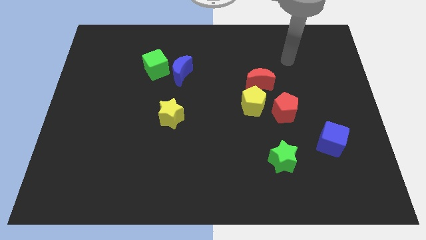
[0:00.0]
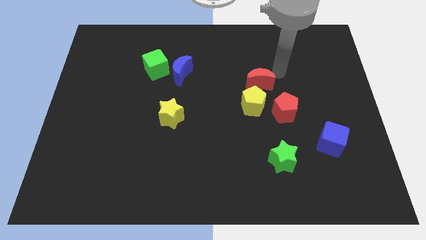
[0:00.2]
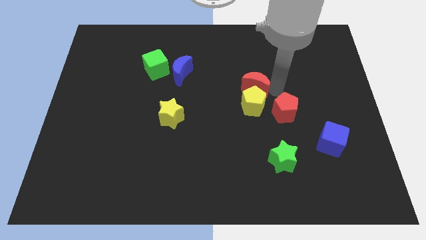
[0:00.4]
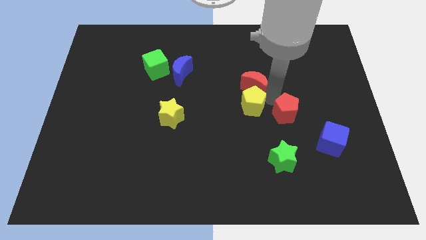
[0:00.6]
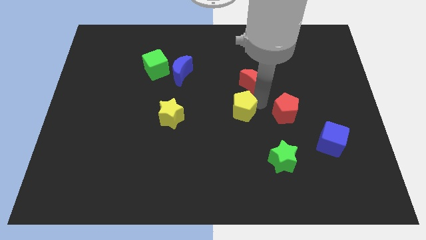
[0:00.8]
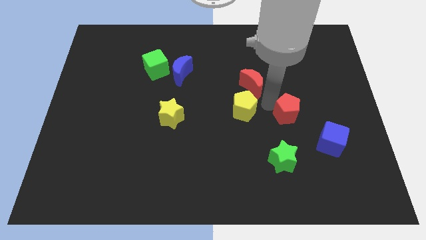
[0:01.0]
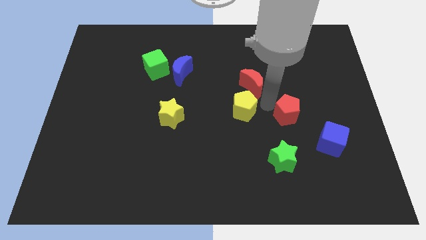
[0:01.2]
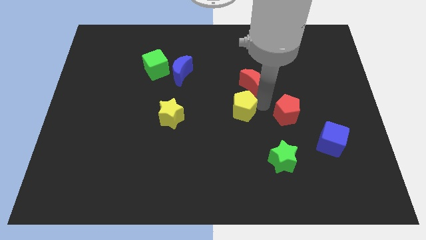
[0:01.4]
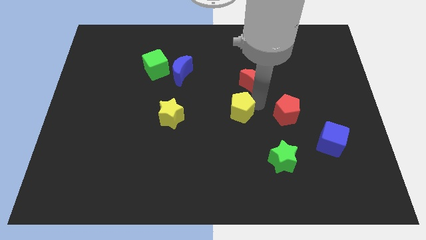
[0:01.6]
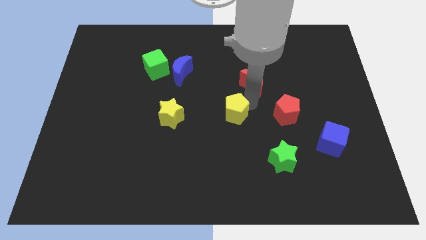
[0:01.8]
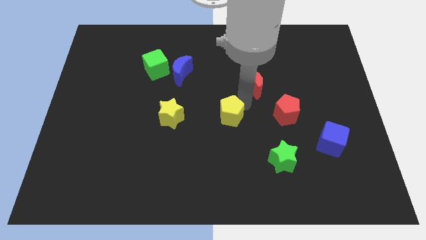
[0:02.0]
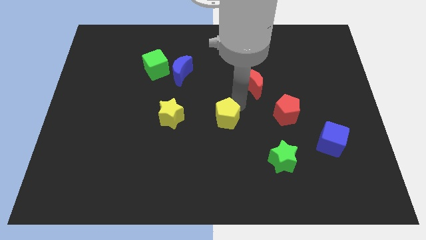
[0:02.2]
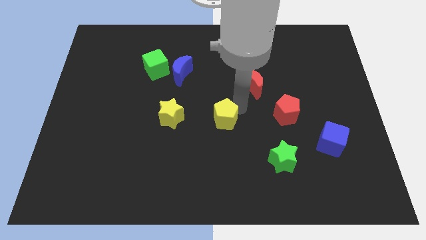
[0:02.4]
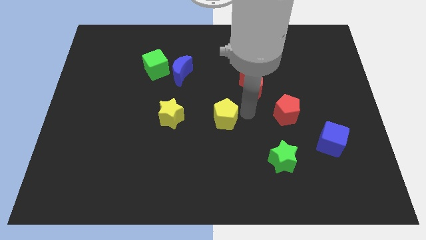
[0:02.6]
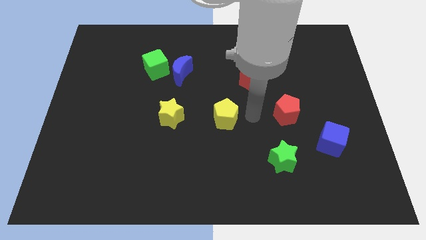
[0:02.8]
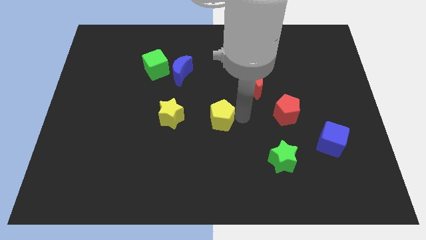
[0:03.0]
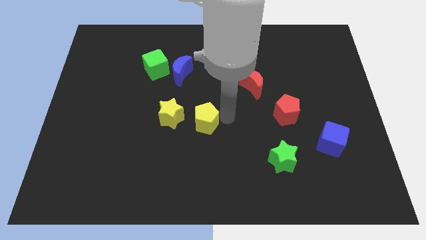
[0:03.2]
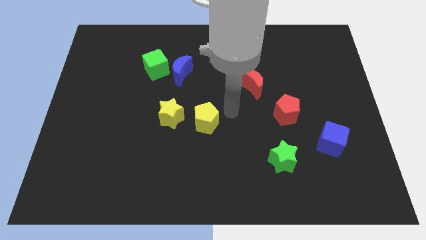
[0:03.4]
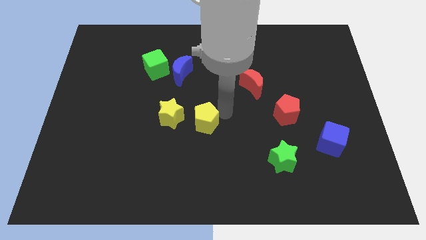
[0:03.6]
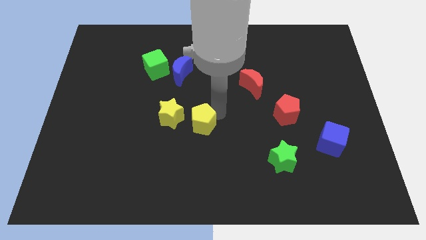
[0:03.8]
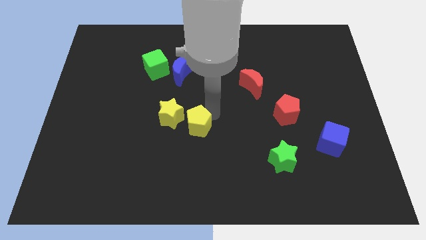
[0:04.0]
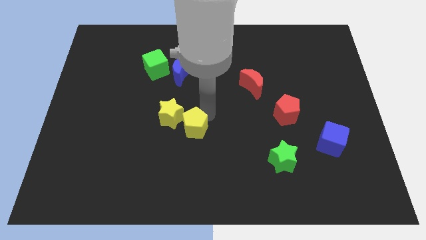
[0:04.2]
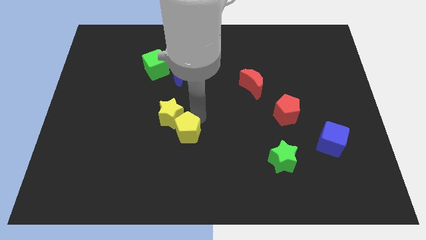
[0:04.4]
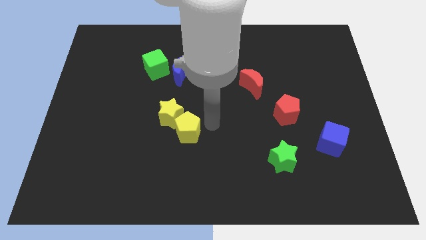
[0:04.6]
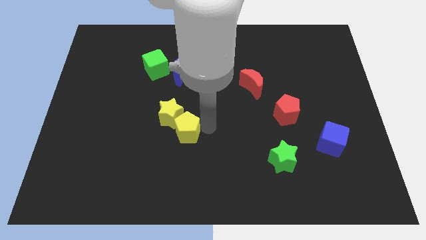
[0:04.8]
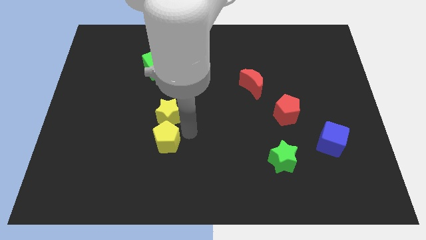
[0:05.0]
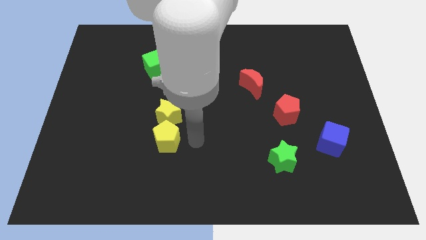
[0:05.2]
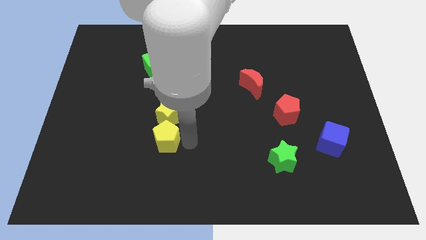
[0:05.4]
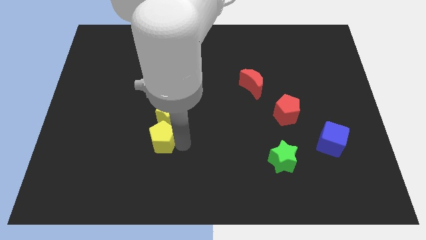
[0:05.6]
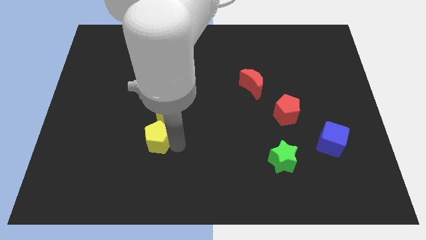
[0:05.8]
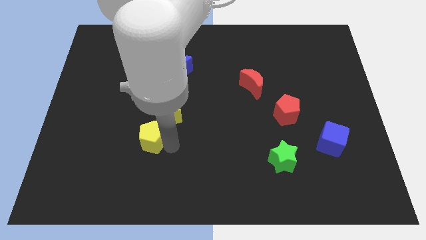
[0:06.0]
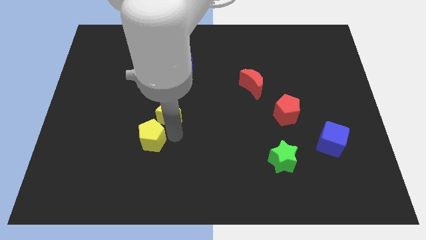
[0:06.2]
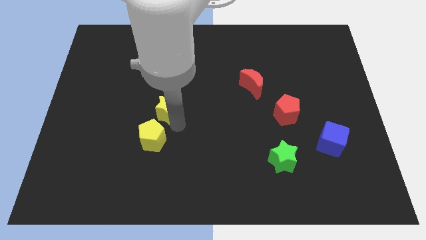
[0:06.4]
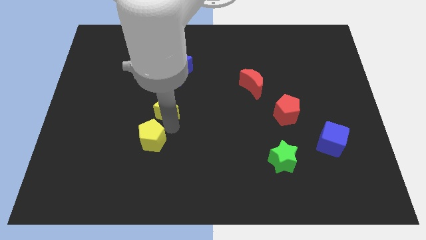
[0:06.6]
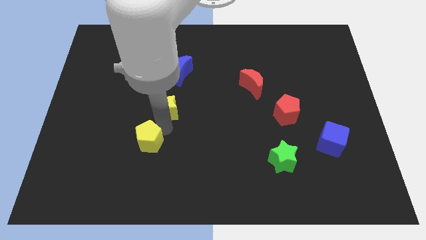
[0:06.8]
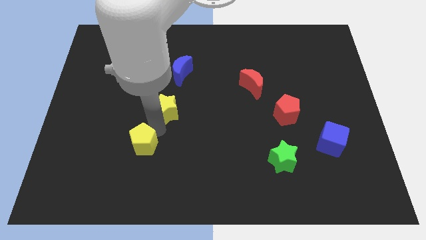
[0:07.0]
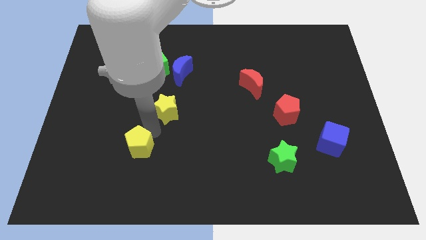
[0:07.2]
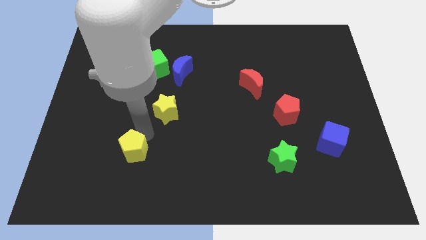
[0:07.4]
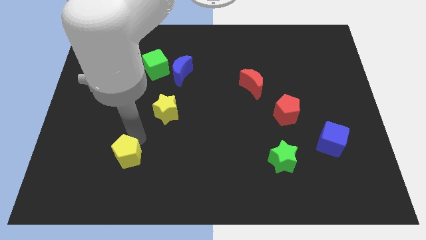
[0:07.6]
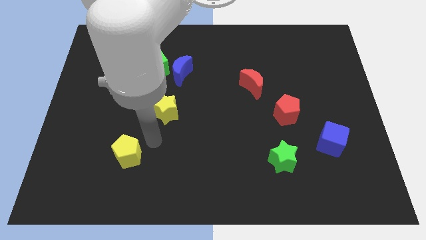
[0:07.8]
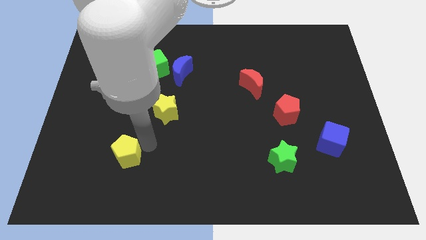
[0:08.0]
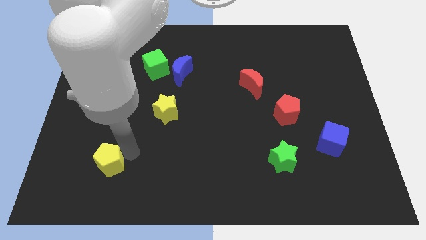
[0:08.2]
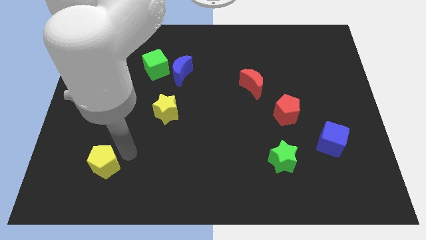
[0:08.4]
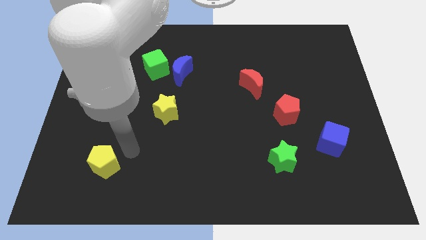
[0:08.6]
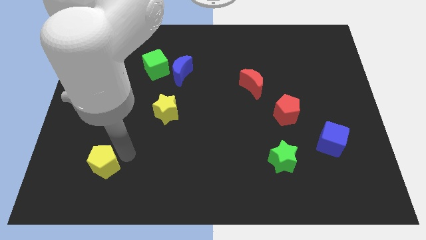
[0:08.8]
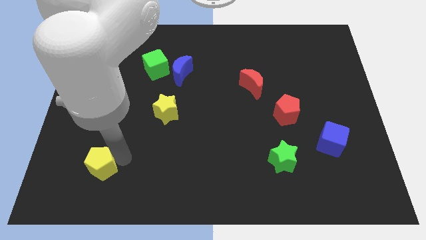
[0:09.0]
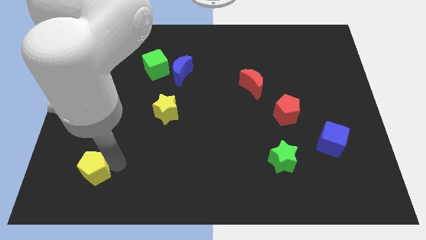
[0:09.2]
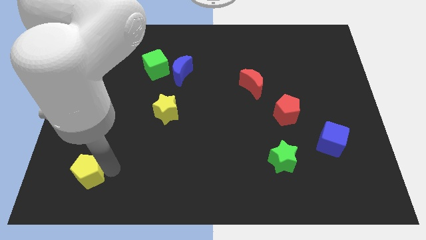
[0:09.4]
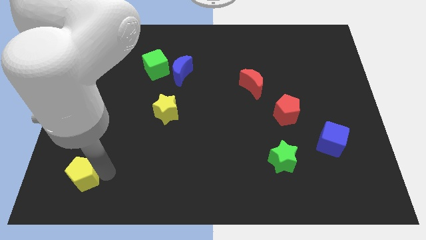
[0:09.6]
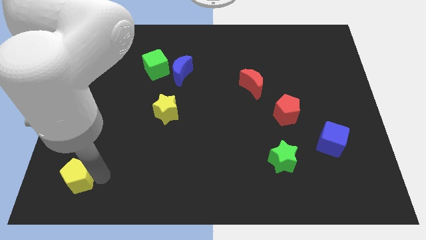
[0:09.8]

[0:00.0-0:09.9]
put the yellow pentagon to the bottom left of the board

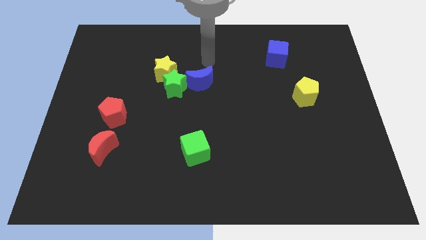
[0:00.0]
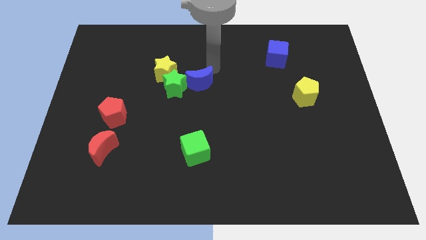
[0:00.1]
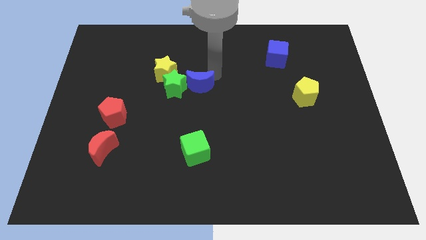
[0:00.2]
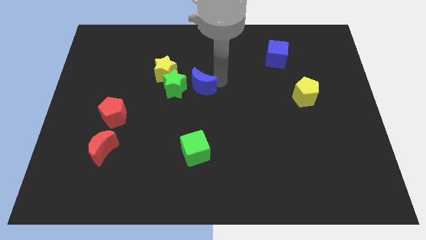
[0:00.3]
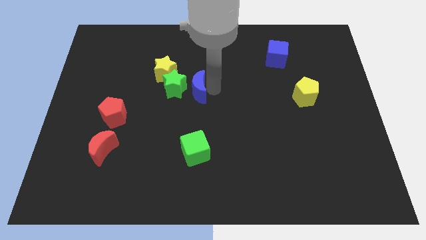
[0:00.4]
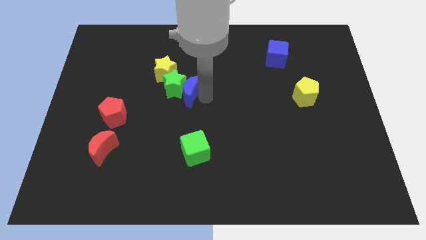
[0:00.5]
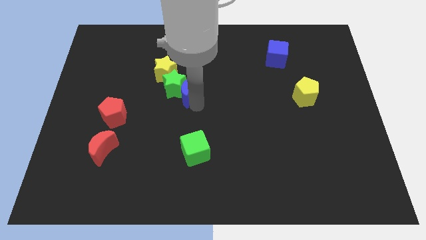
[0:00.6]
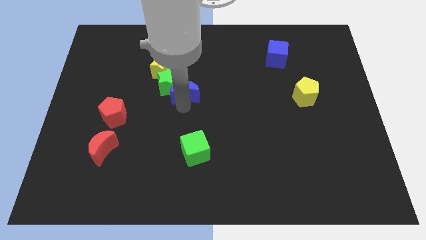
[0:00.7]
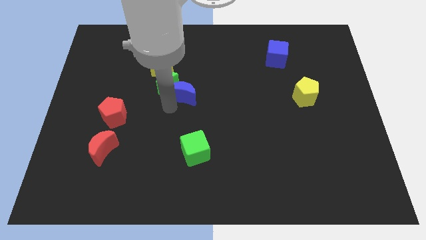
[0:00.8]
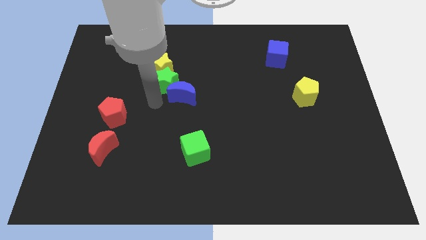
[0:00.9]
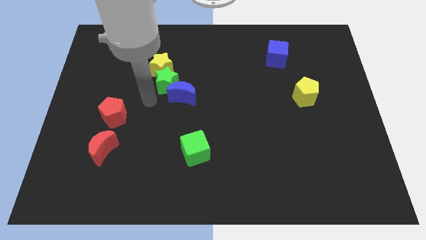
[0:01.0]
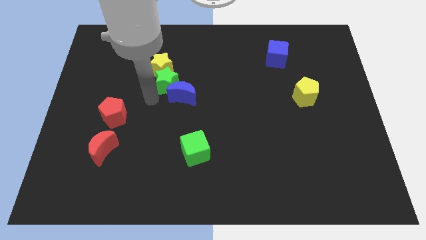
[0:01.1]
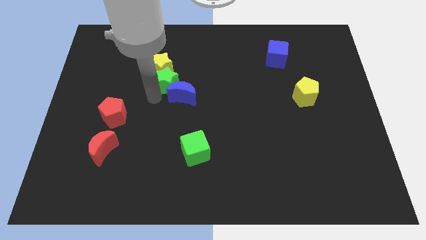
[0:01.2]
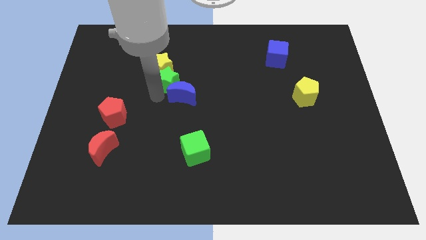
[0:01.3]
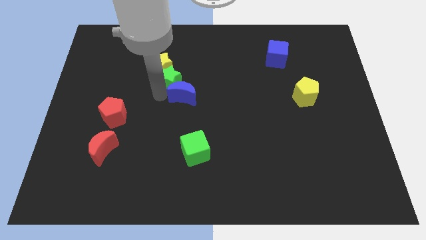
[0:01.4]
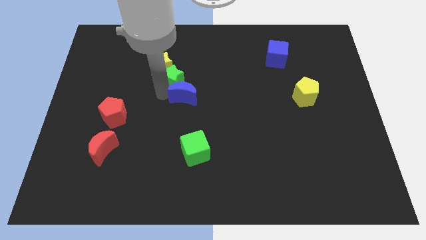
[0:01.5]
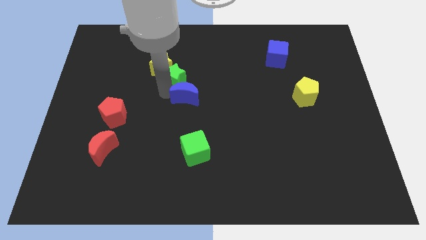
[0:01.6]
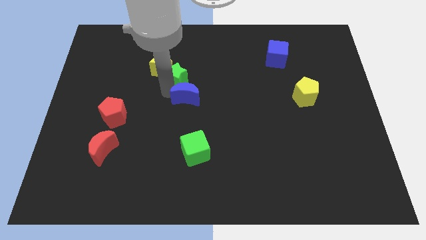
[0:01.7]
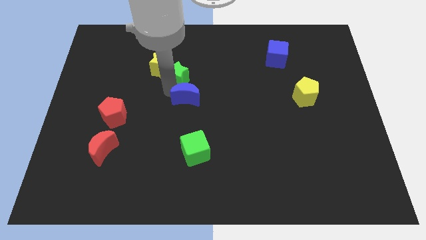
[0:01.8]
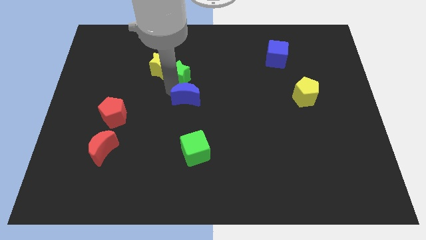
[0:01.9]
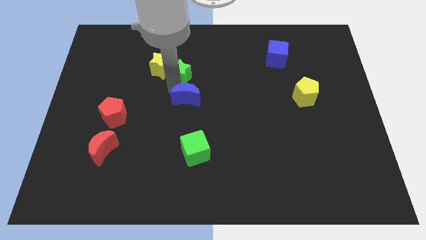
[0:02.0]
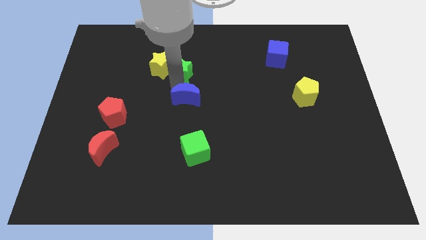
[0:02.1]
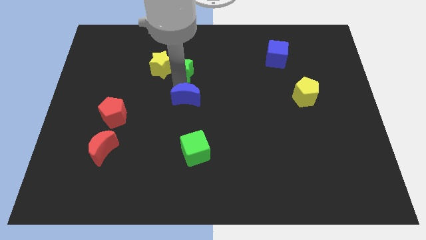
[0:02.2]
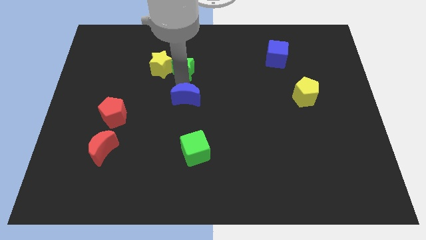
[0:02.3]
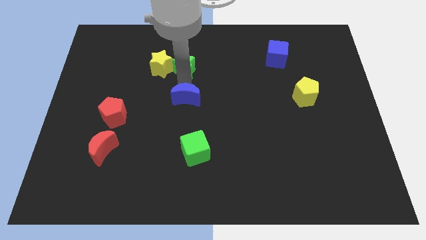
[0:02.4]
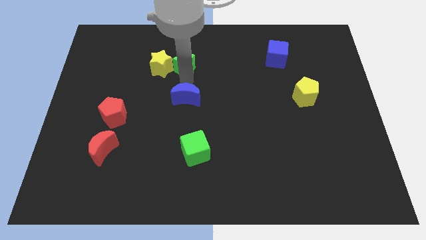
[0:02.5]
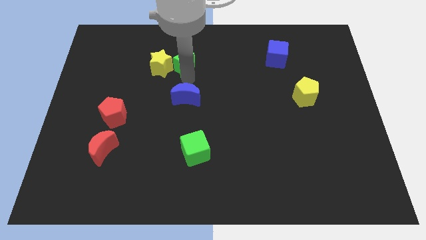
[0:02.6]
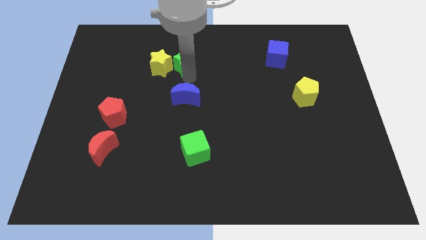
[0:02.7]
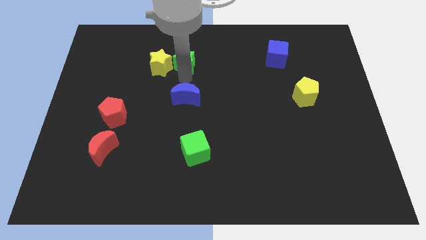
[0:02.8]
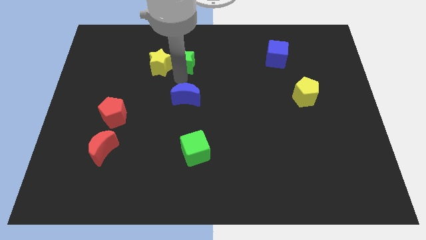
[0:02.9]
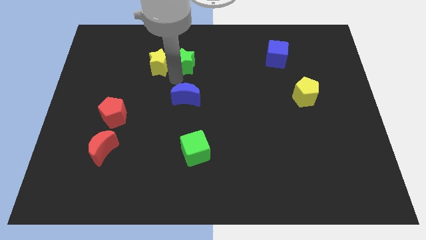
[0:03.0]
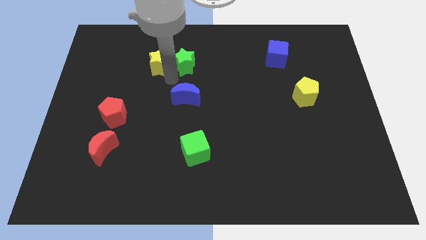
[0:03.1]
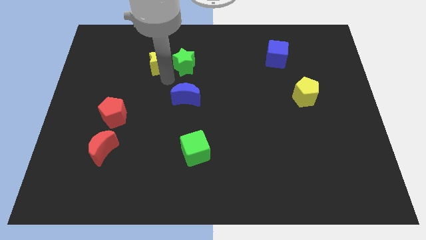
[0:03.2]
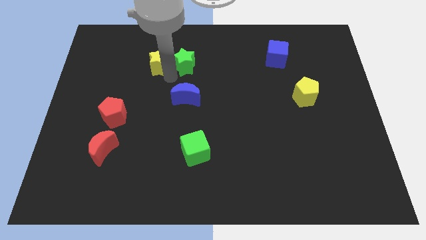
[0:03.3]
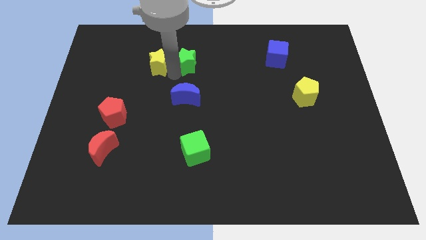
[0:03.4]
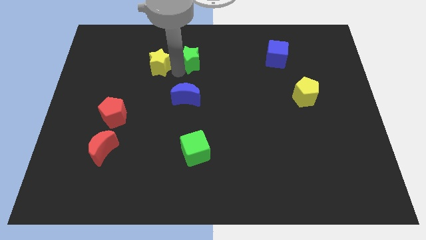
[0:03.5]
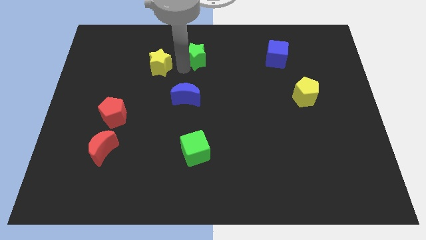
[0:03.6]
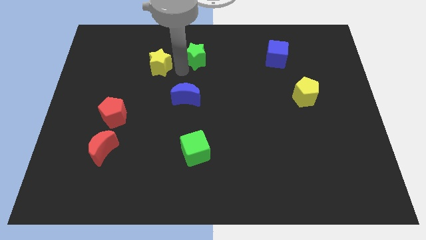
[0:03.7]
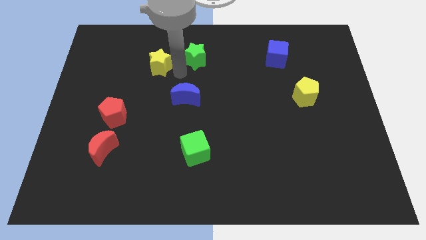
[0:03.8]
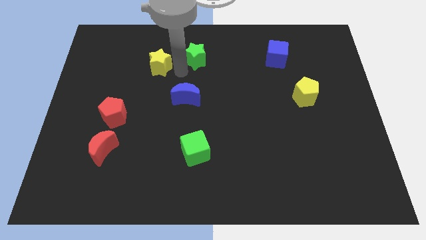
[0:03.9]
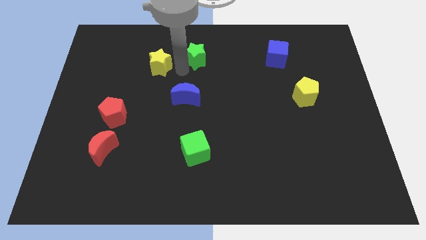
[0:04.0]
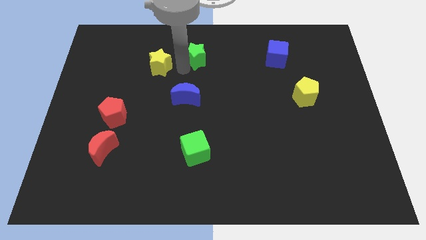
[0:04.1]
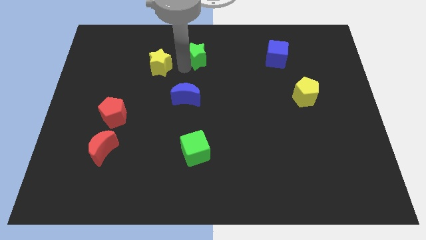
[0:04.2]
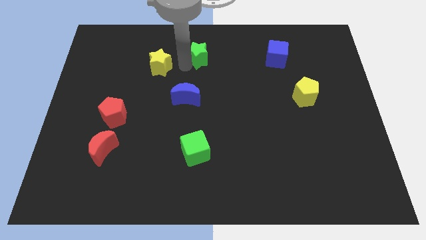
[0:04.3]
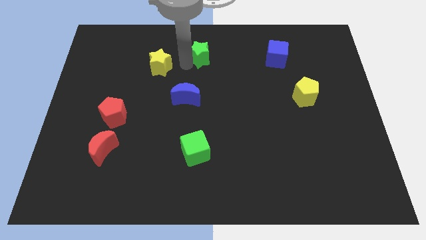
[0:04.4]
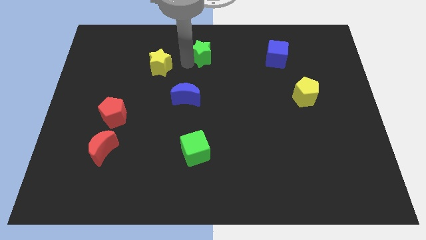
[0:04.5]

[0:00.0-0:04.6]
move the green star to the top
